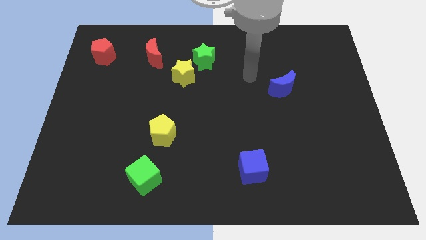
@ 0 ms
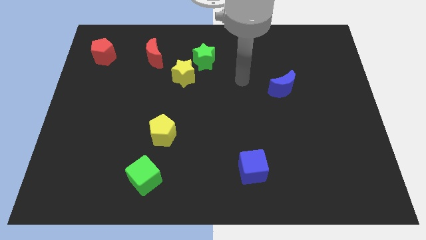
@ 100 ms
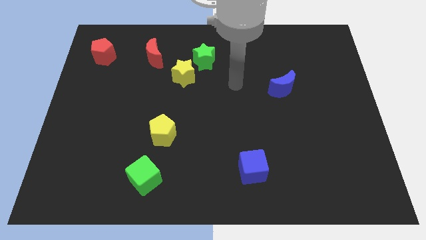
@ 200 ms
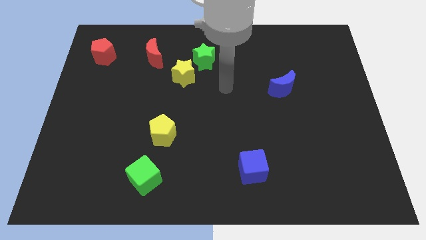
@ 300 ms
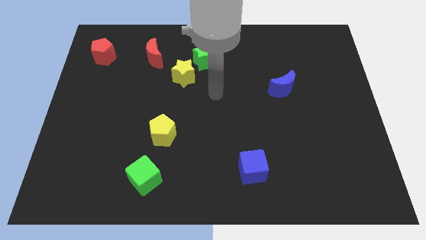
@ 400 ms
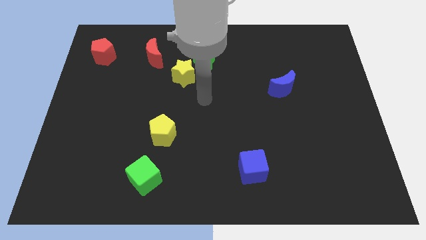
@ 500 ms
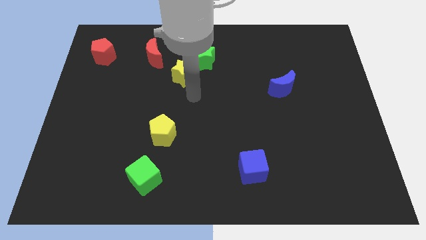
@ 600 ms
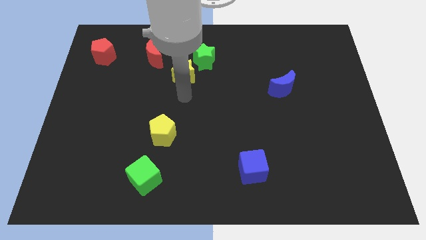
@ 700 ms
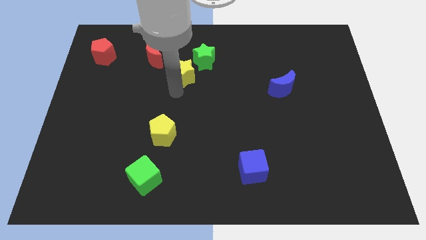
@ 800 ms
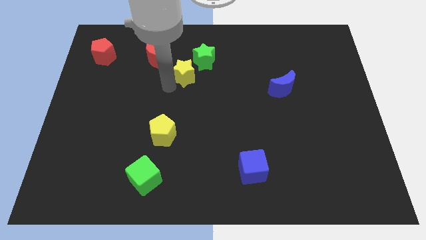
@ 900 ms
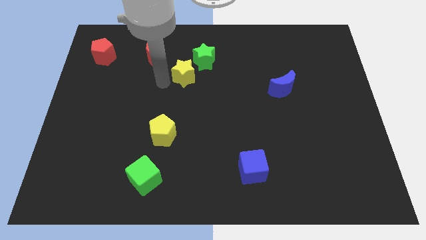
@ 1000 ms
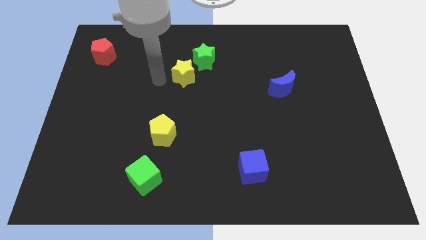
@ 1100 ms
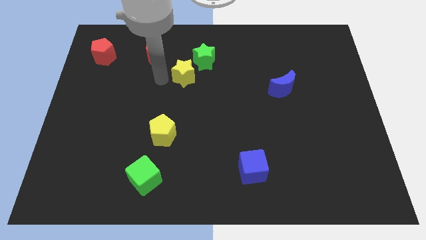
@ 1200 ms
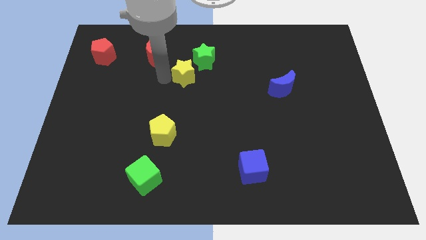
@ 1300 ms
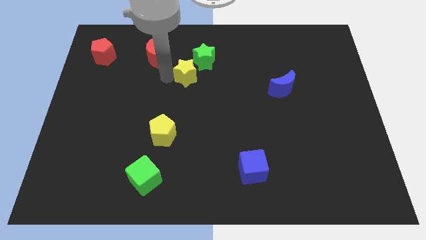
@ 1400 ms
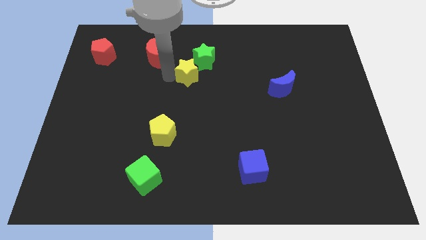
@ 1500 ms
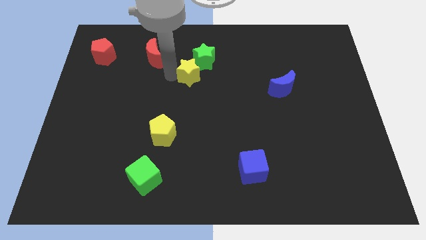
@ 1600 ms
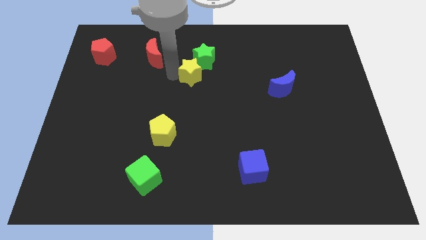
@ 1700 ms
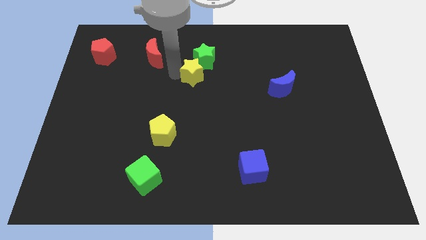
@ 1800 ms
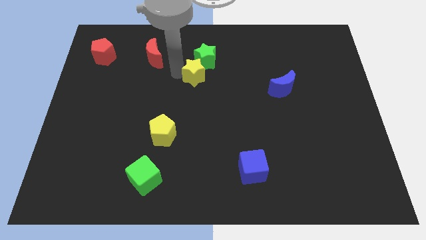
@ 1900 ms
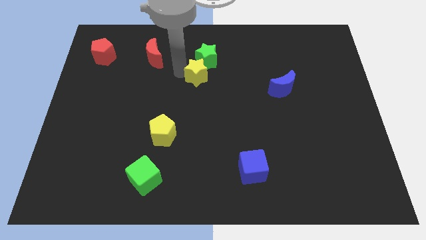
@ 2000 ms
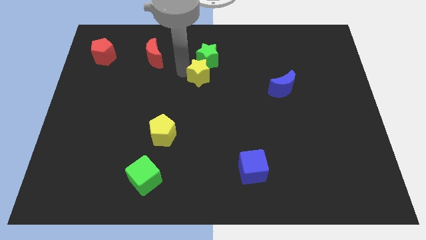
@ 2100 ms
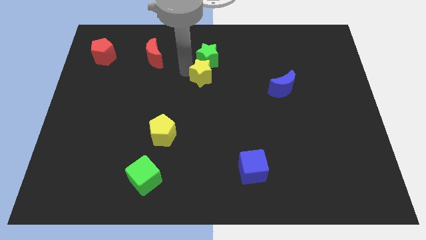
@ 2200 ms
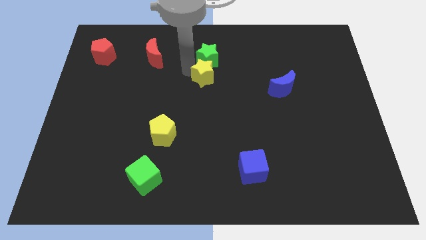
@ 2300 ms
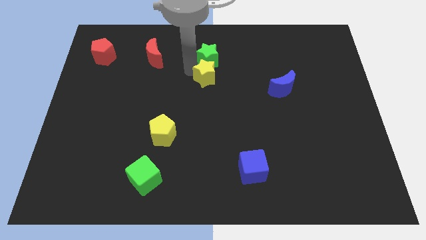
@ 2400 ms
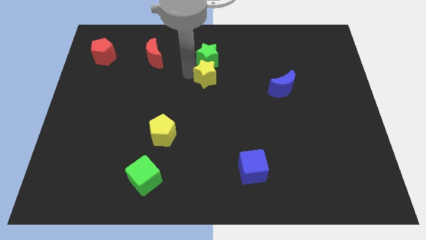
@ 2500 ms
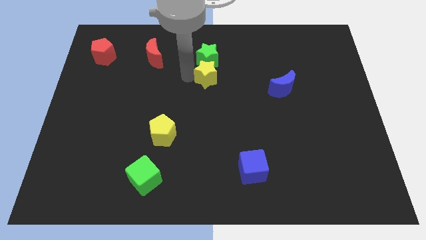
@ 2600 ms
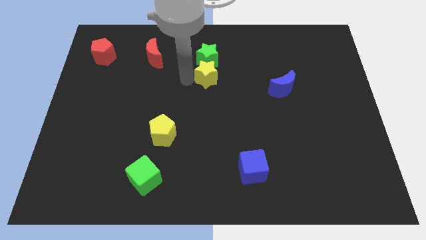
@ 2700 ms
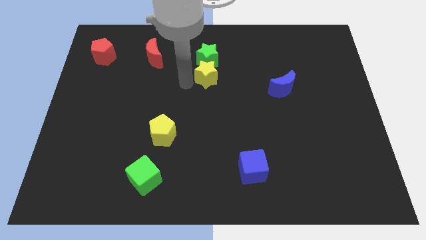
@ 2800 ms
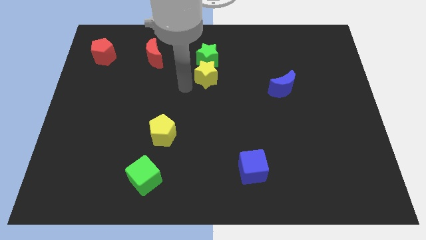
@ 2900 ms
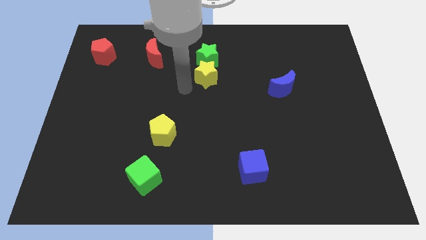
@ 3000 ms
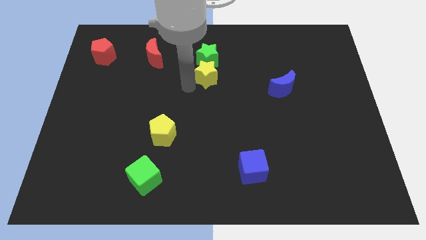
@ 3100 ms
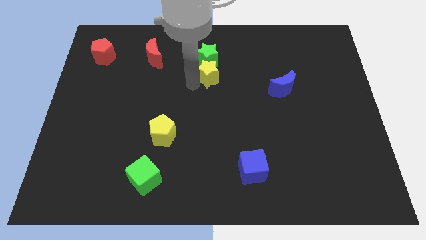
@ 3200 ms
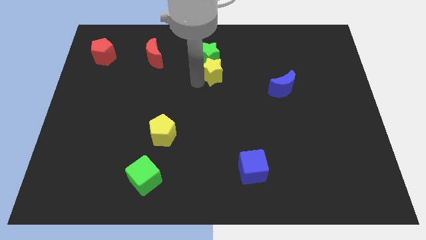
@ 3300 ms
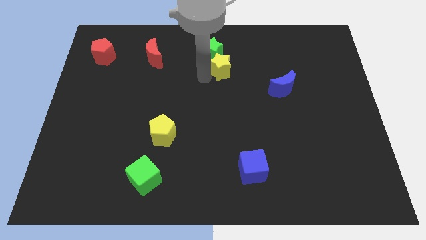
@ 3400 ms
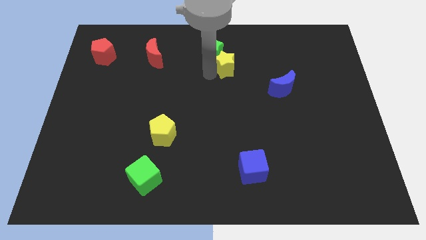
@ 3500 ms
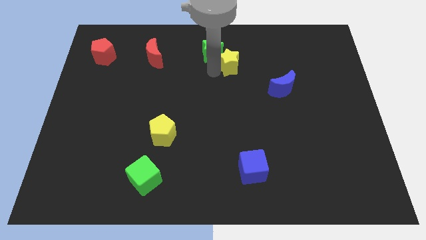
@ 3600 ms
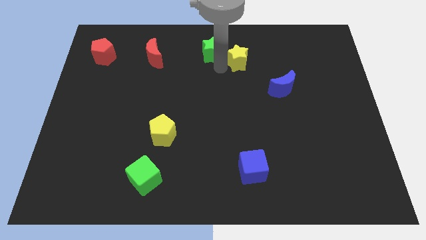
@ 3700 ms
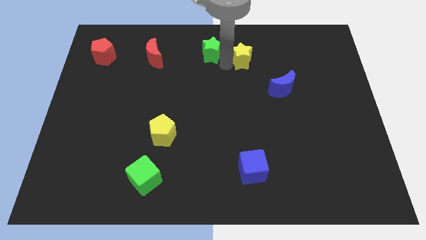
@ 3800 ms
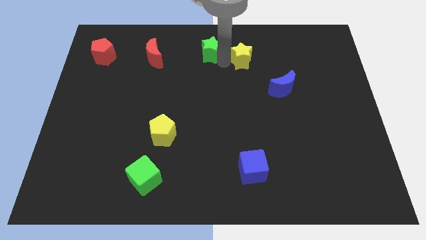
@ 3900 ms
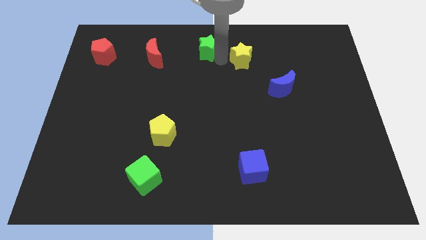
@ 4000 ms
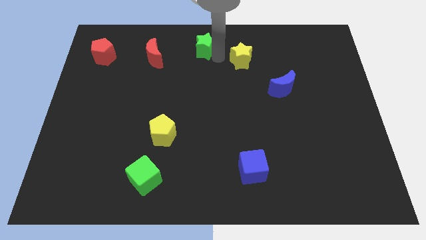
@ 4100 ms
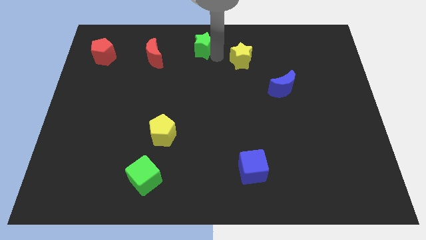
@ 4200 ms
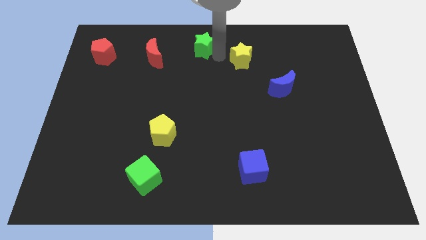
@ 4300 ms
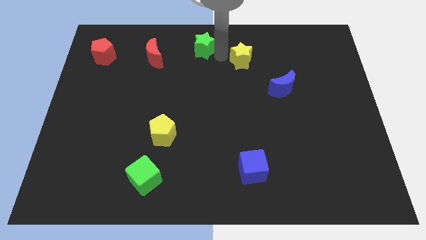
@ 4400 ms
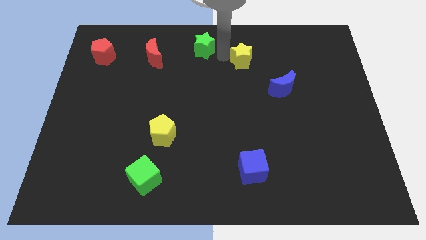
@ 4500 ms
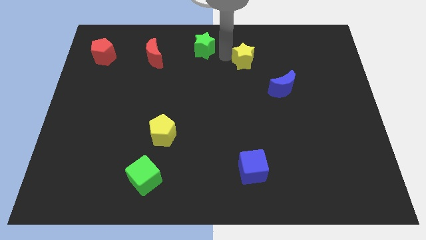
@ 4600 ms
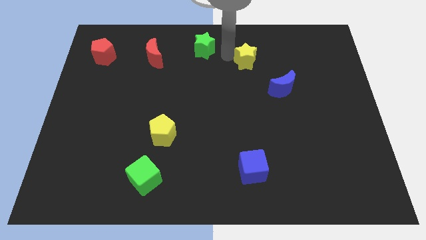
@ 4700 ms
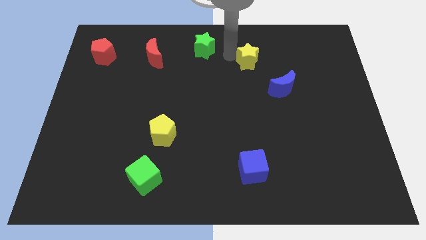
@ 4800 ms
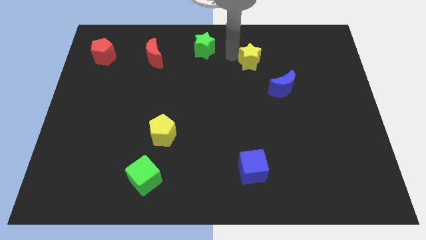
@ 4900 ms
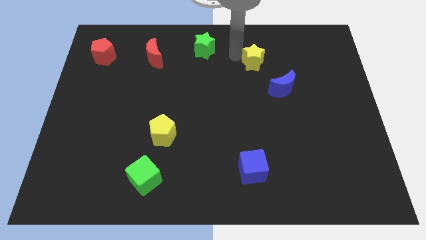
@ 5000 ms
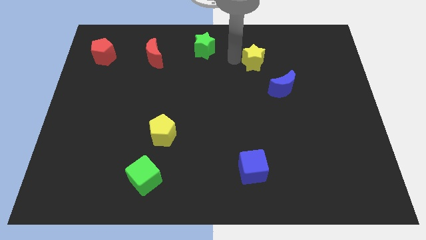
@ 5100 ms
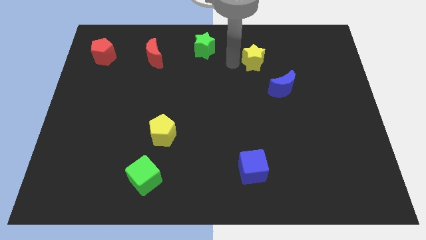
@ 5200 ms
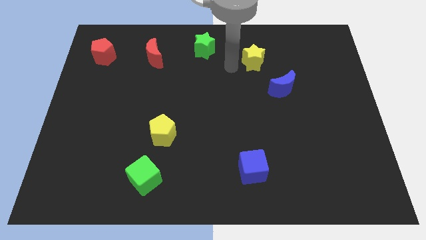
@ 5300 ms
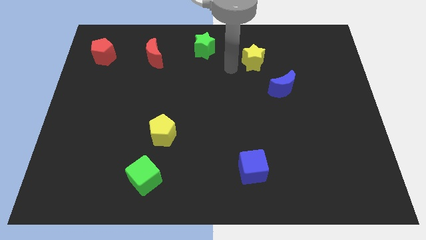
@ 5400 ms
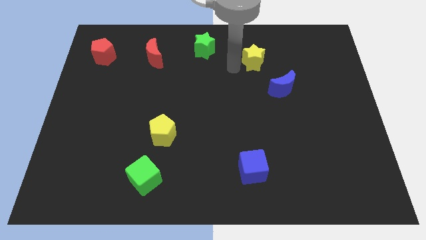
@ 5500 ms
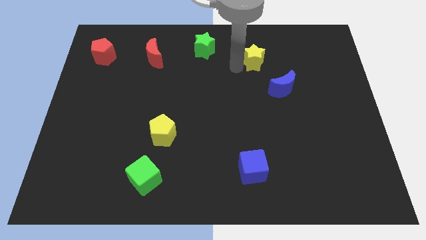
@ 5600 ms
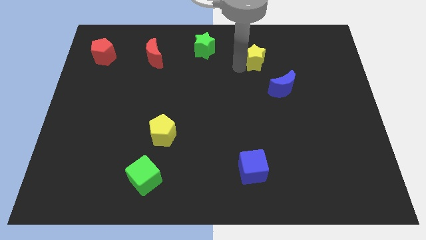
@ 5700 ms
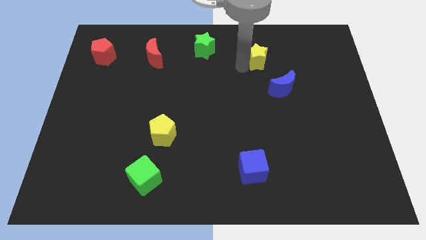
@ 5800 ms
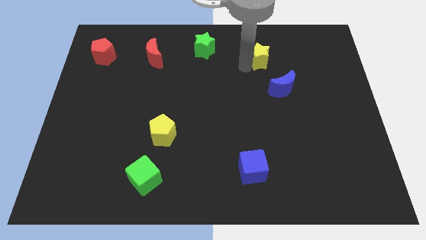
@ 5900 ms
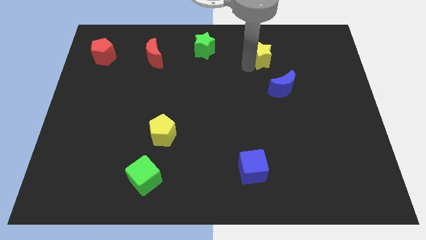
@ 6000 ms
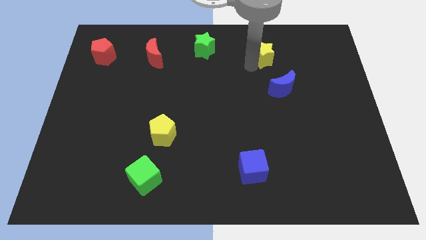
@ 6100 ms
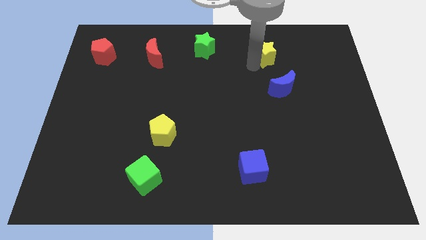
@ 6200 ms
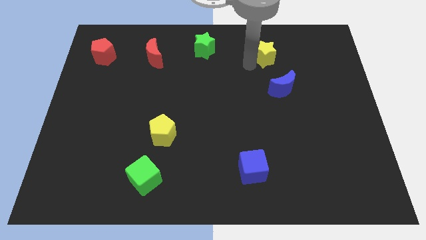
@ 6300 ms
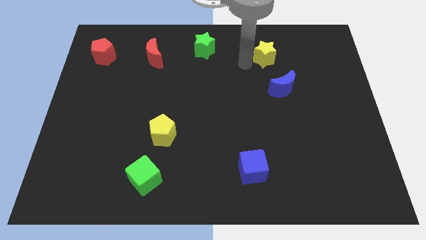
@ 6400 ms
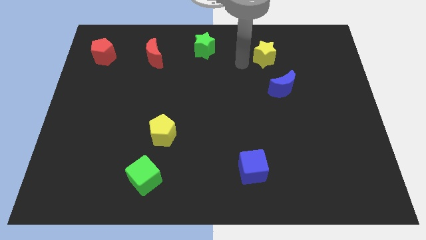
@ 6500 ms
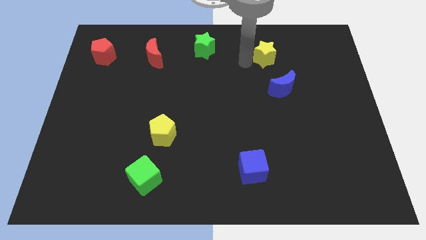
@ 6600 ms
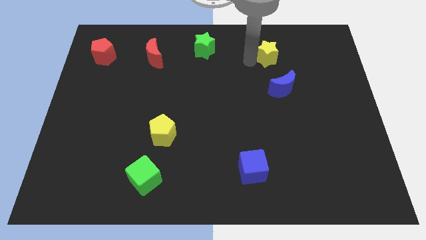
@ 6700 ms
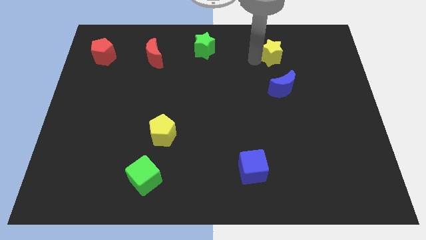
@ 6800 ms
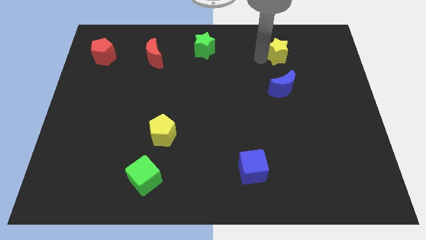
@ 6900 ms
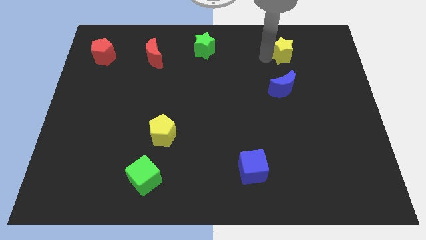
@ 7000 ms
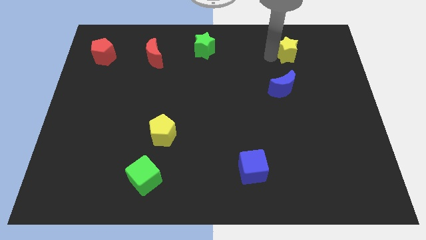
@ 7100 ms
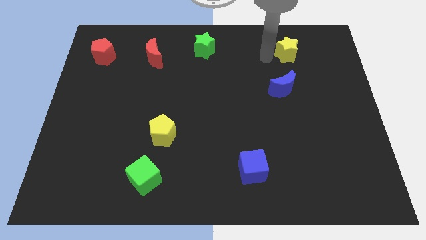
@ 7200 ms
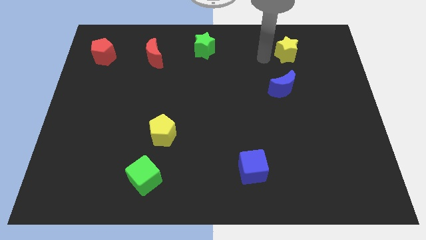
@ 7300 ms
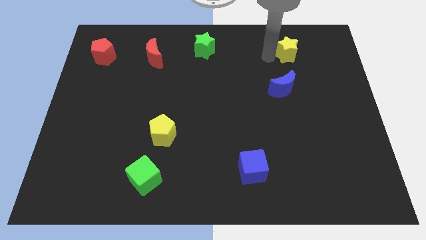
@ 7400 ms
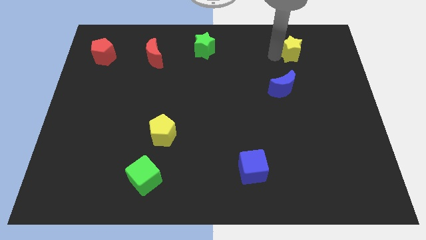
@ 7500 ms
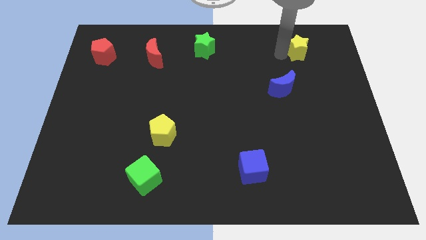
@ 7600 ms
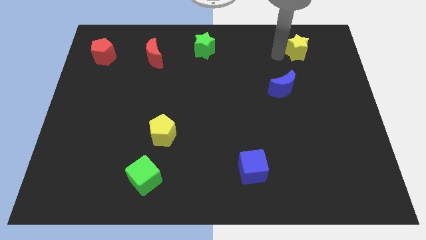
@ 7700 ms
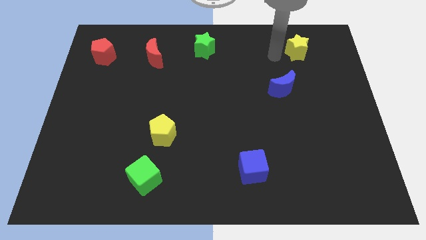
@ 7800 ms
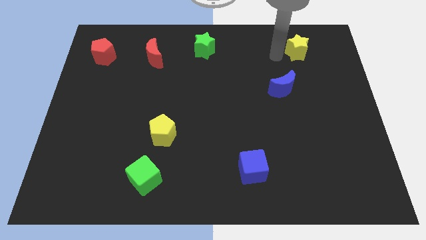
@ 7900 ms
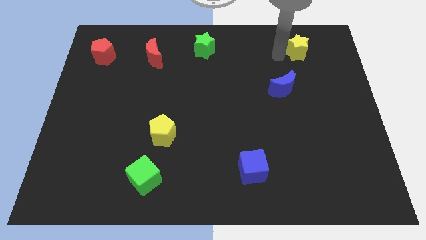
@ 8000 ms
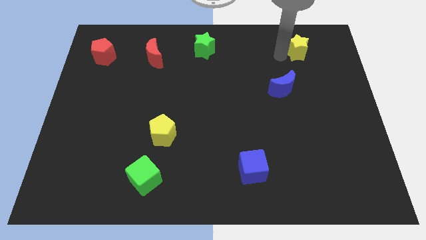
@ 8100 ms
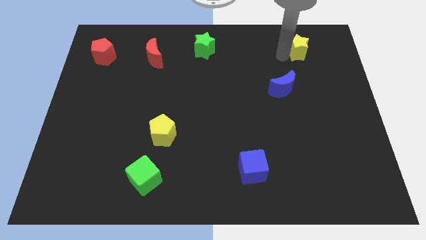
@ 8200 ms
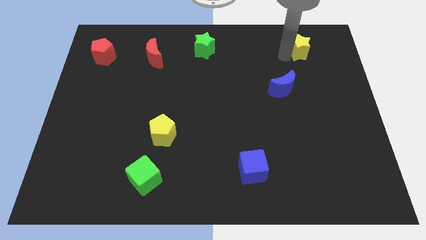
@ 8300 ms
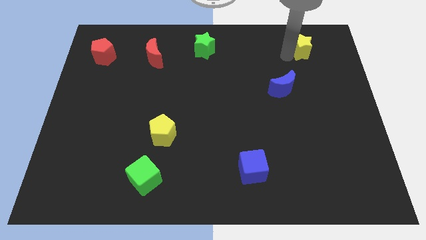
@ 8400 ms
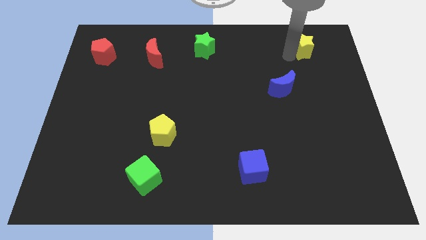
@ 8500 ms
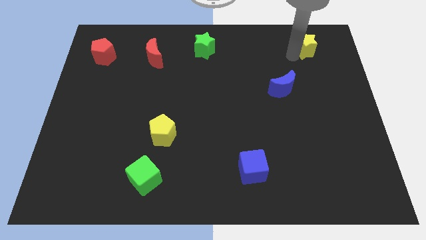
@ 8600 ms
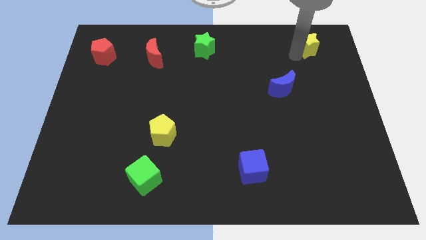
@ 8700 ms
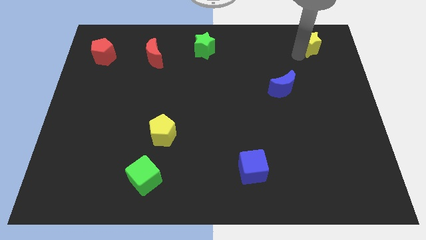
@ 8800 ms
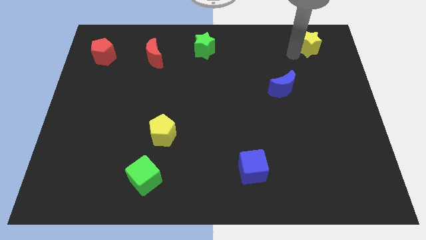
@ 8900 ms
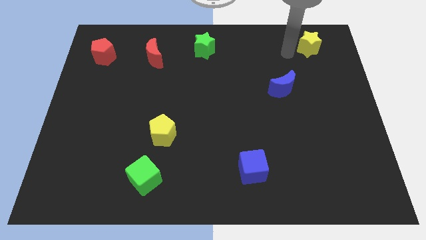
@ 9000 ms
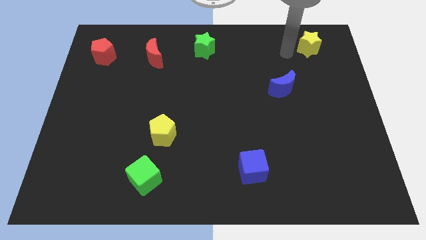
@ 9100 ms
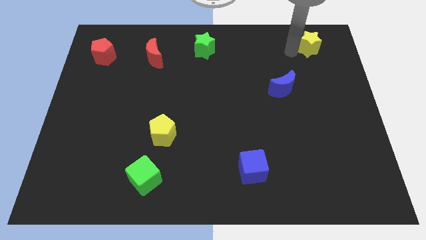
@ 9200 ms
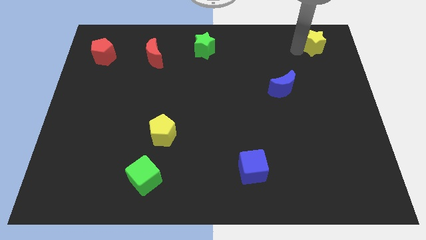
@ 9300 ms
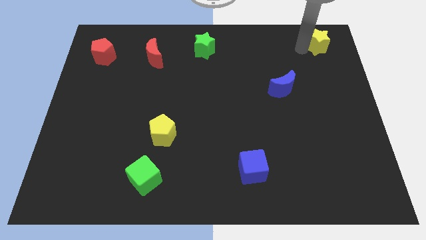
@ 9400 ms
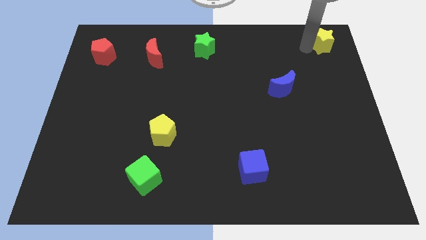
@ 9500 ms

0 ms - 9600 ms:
move the yellow star to the upper right corner
